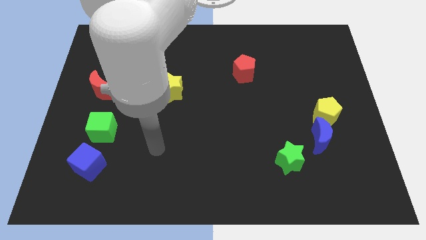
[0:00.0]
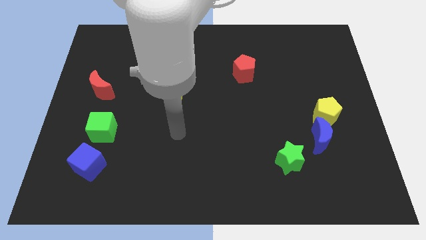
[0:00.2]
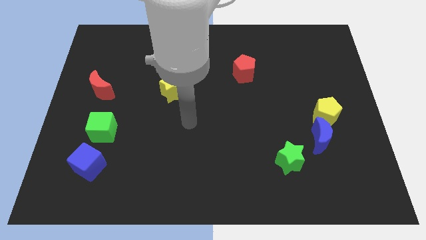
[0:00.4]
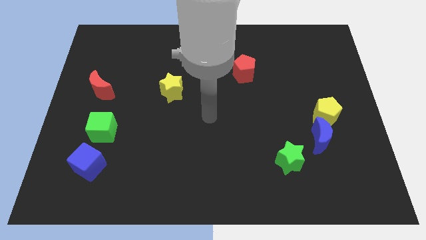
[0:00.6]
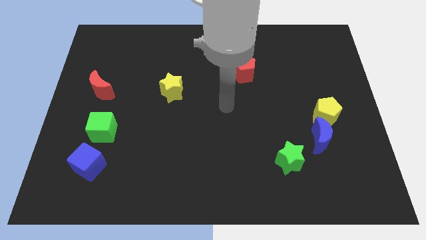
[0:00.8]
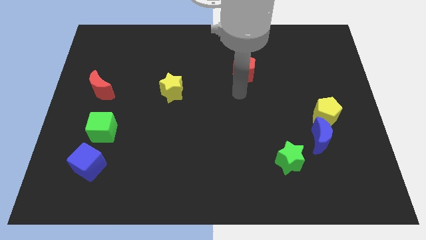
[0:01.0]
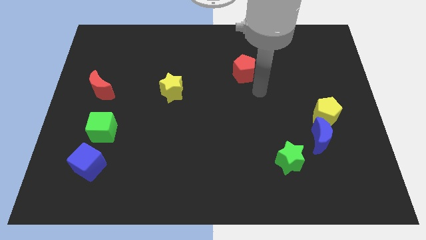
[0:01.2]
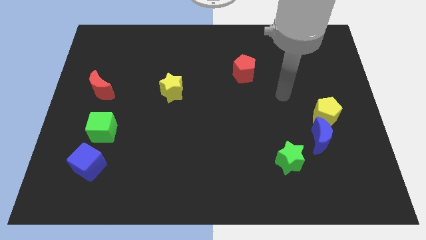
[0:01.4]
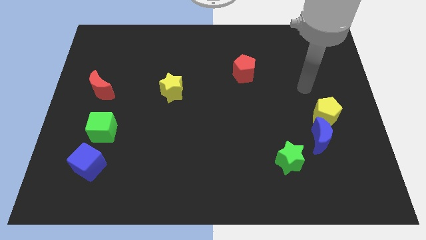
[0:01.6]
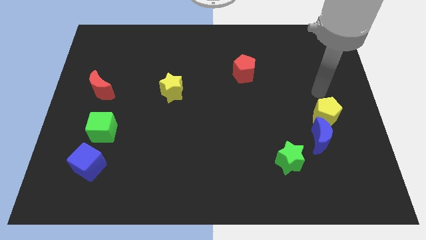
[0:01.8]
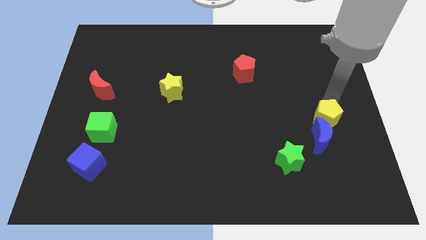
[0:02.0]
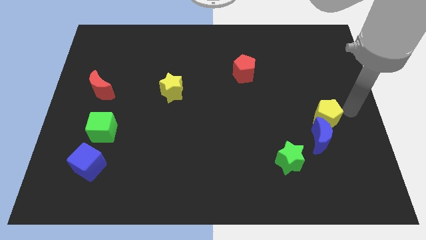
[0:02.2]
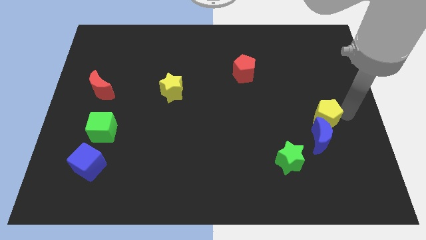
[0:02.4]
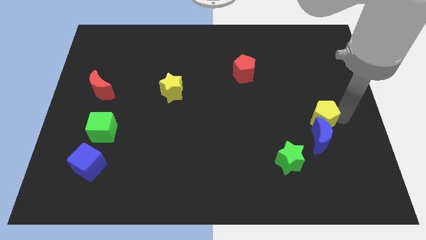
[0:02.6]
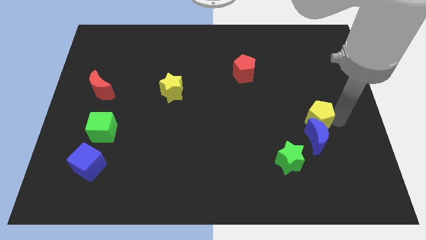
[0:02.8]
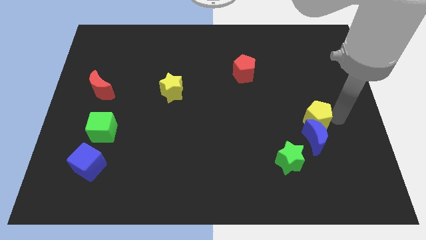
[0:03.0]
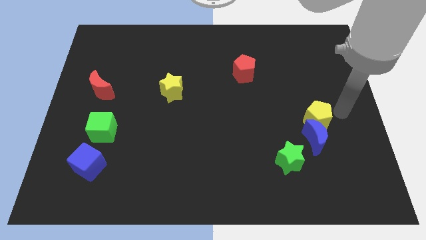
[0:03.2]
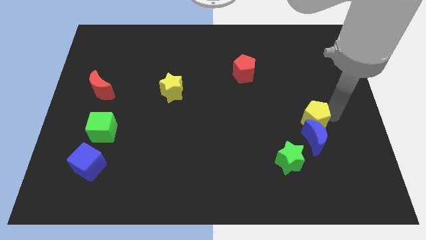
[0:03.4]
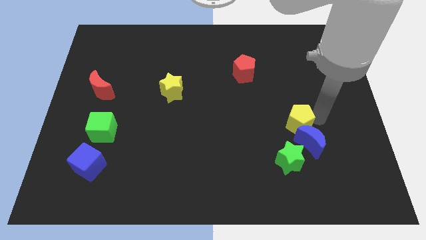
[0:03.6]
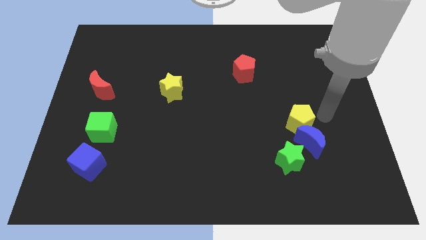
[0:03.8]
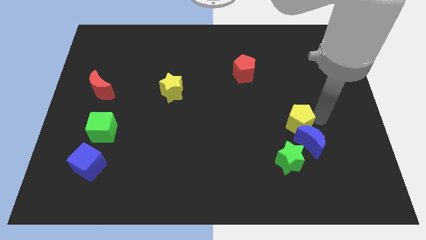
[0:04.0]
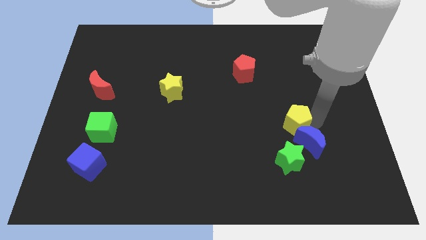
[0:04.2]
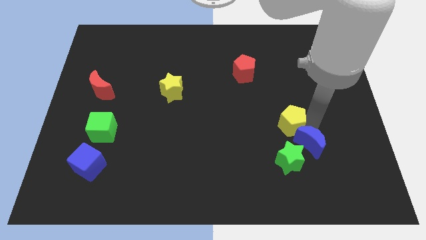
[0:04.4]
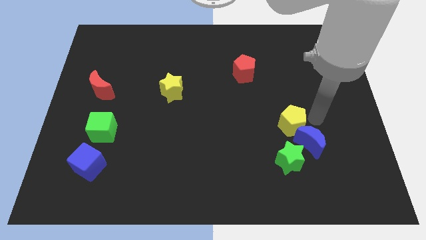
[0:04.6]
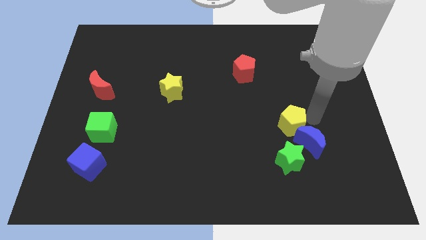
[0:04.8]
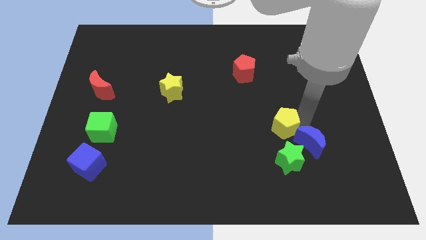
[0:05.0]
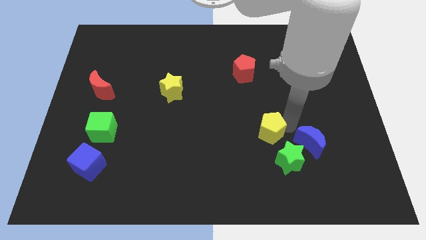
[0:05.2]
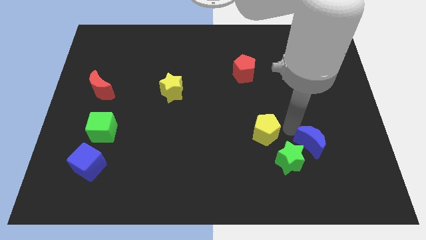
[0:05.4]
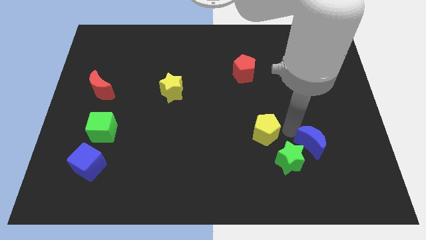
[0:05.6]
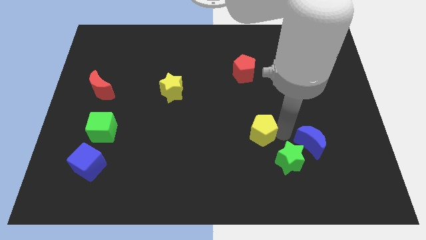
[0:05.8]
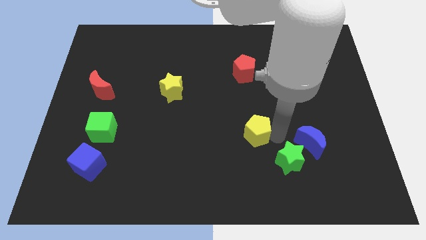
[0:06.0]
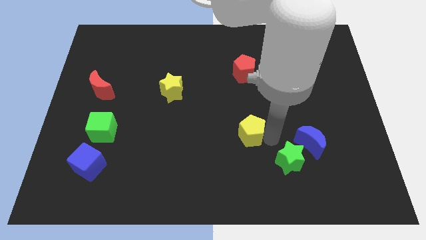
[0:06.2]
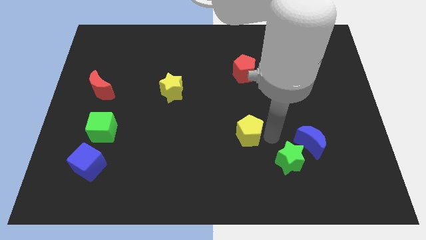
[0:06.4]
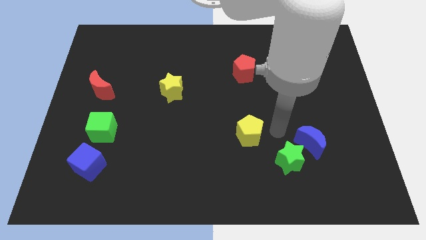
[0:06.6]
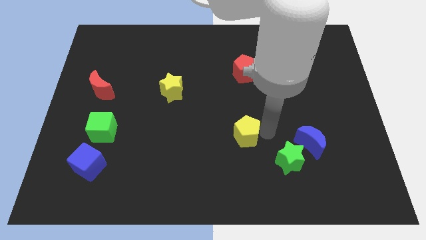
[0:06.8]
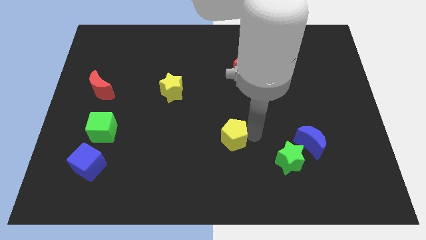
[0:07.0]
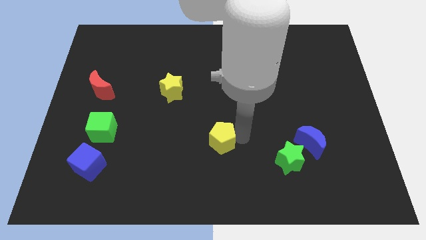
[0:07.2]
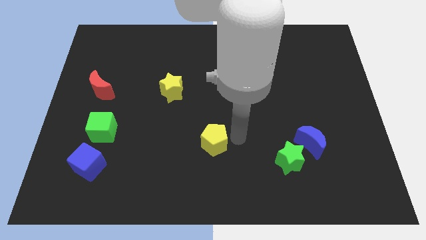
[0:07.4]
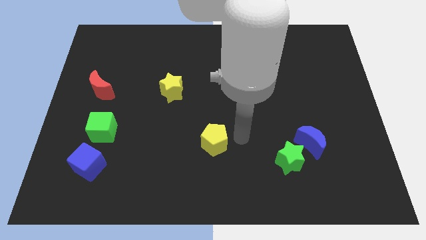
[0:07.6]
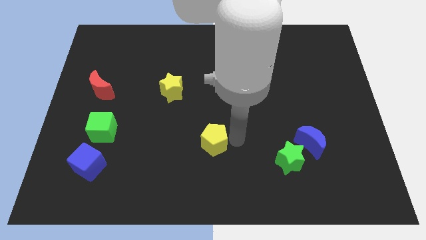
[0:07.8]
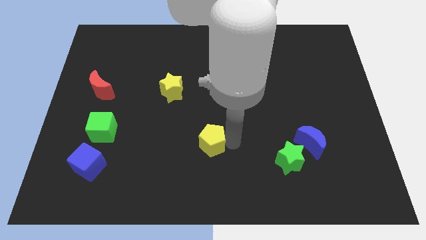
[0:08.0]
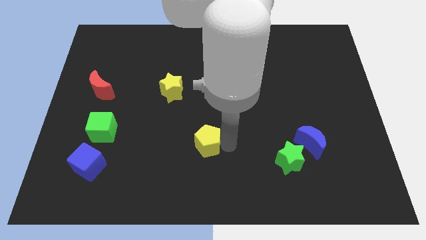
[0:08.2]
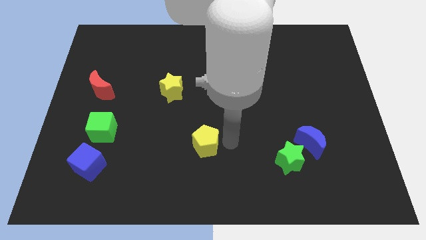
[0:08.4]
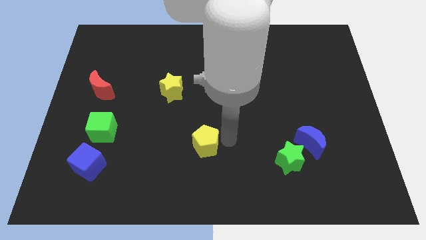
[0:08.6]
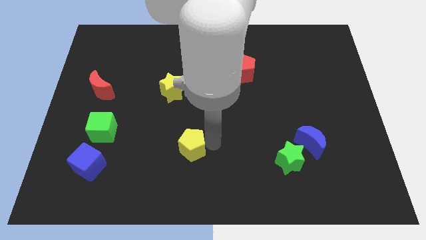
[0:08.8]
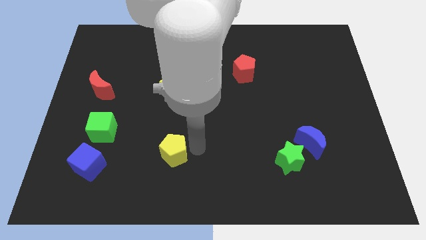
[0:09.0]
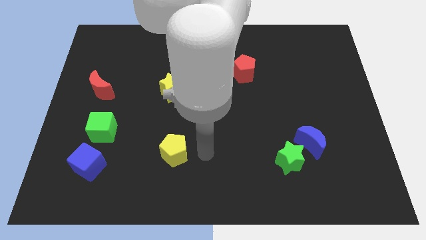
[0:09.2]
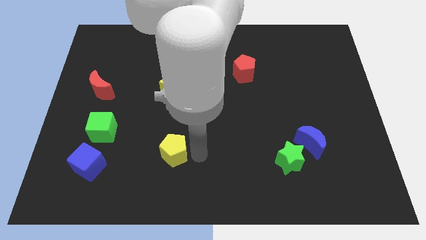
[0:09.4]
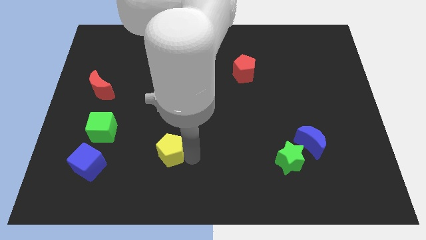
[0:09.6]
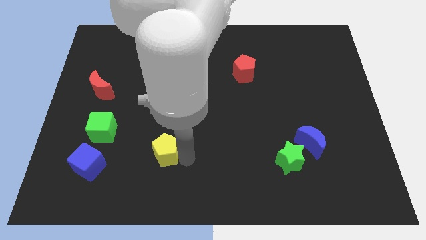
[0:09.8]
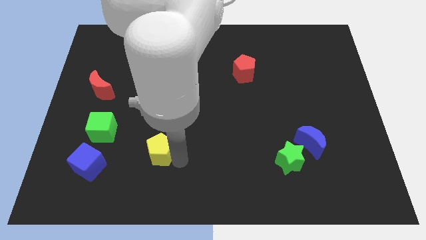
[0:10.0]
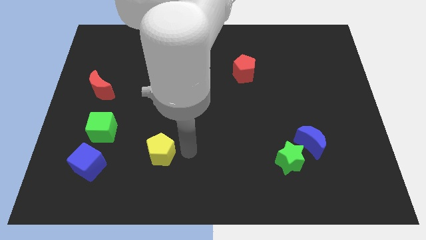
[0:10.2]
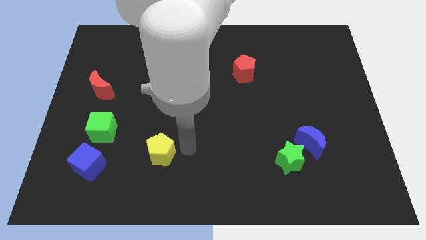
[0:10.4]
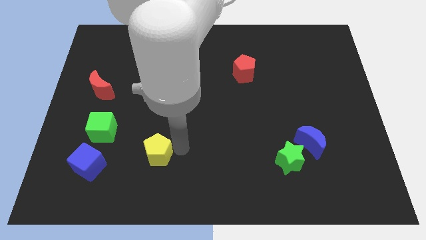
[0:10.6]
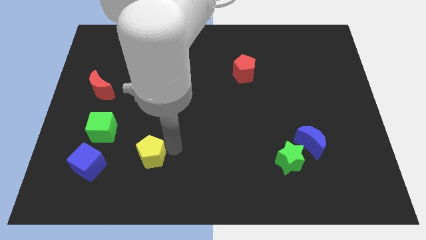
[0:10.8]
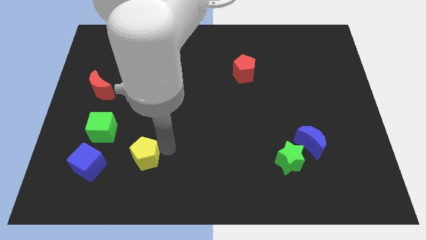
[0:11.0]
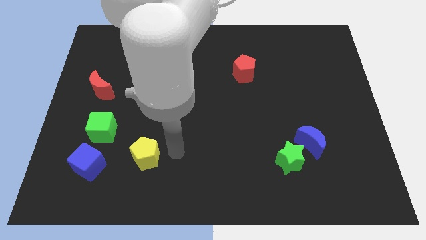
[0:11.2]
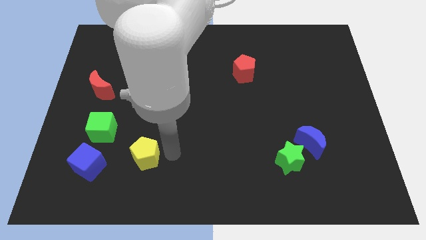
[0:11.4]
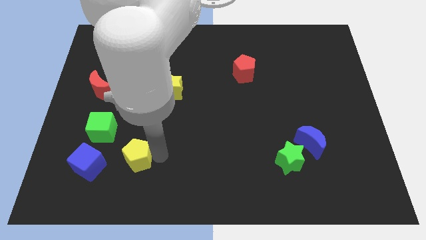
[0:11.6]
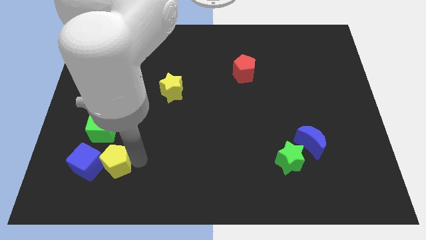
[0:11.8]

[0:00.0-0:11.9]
move the yellow pentagon close to the blue cube

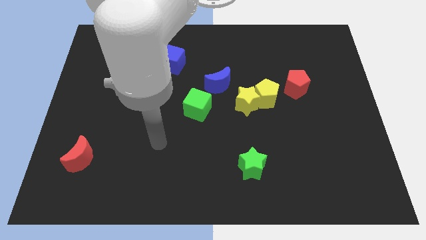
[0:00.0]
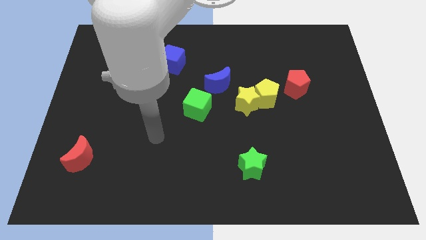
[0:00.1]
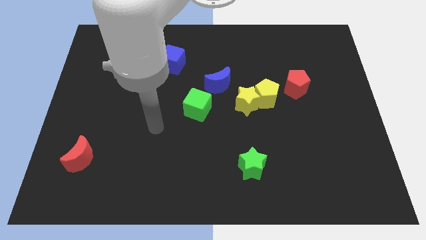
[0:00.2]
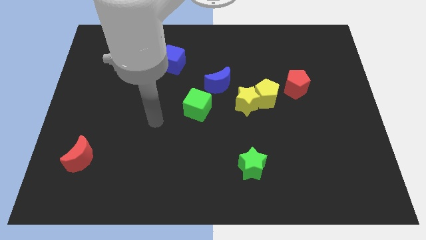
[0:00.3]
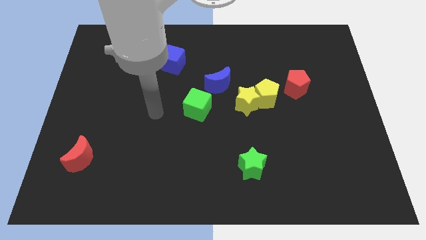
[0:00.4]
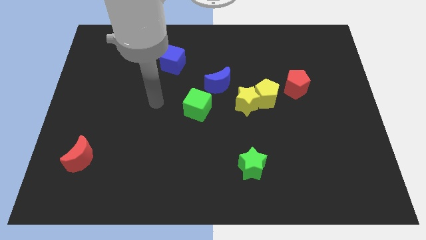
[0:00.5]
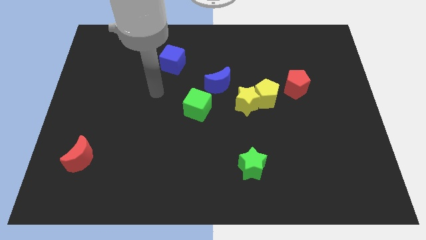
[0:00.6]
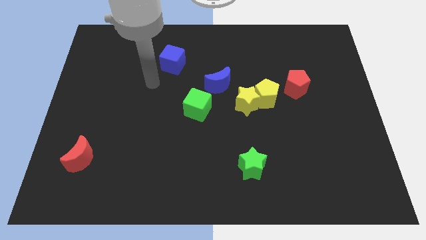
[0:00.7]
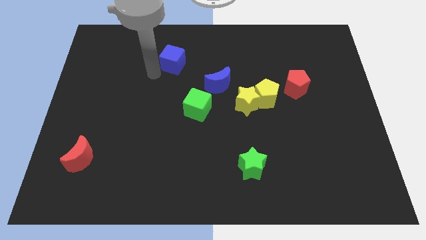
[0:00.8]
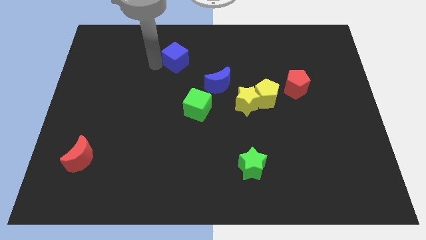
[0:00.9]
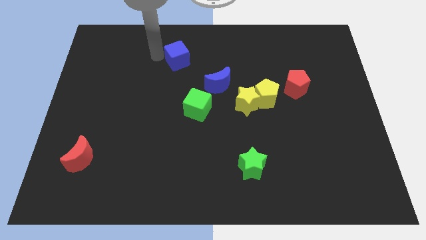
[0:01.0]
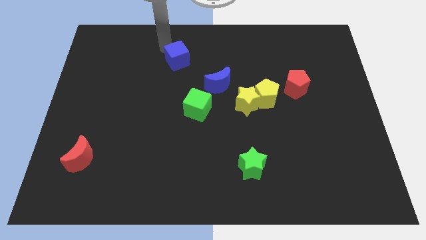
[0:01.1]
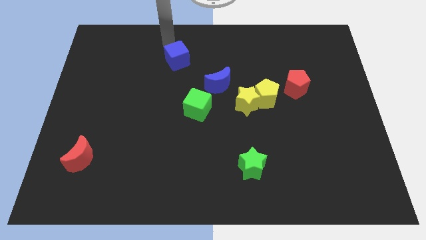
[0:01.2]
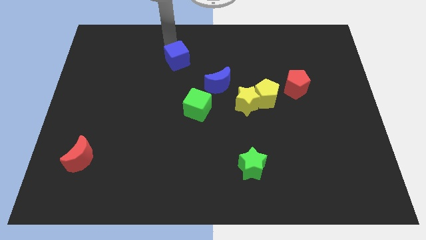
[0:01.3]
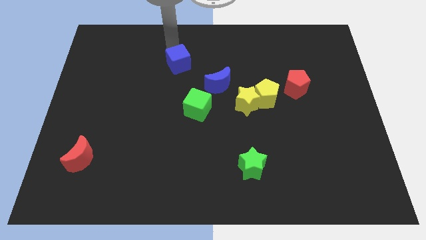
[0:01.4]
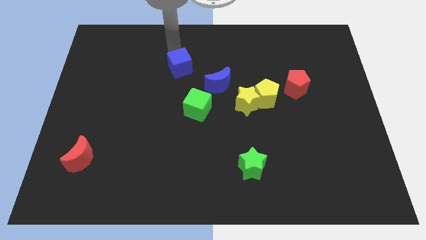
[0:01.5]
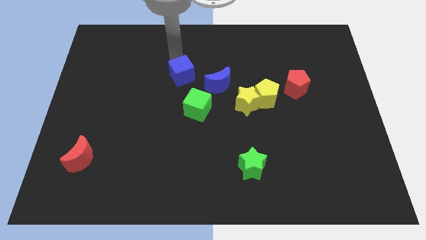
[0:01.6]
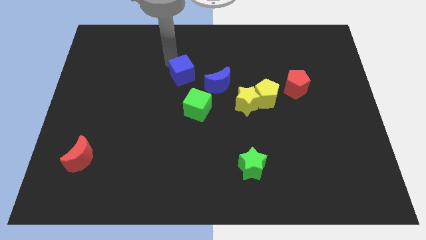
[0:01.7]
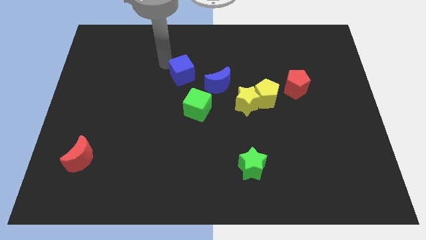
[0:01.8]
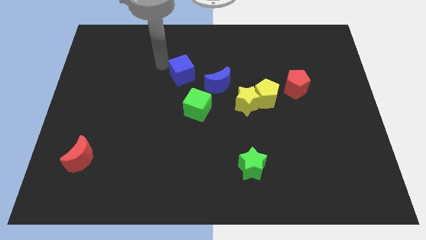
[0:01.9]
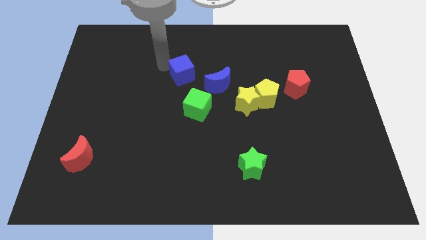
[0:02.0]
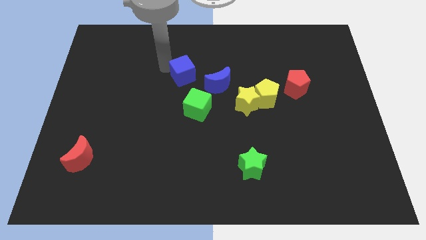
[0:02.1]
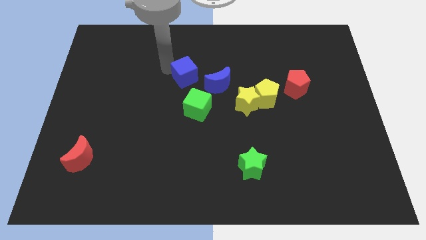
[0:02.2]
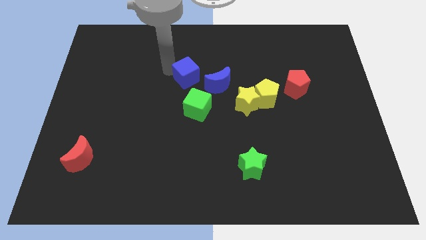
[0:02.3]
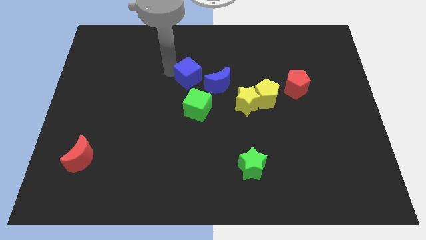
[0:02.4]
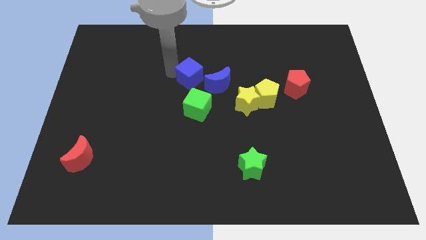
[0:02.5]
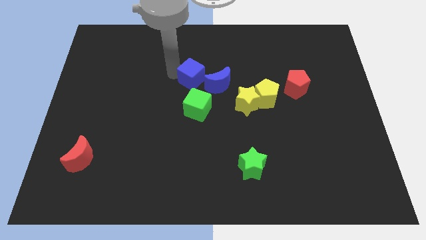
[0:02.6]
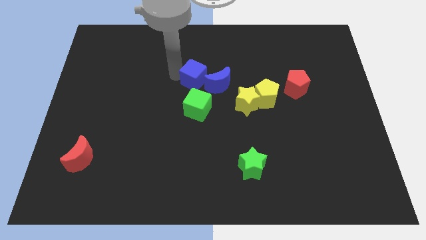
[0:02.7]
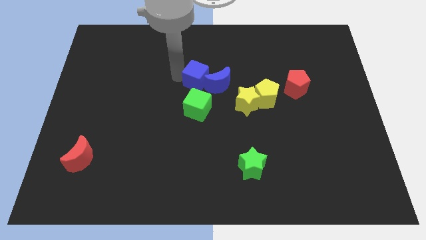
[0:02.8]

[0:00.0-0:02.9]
slide the blue cube next to the blue moon
